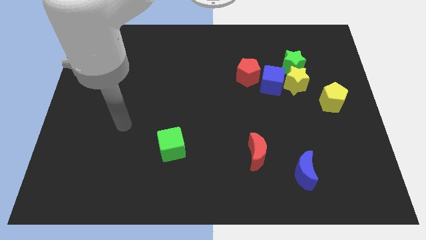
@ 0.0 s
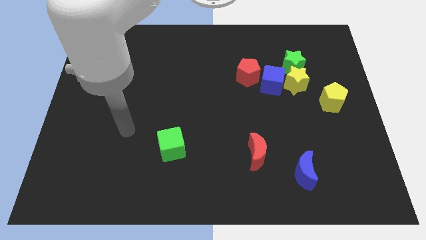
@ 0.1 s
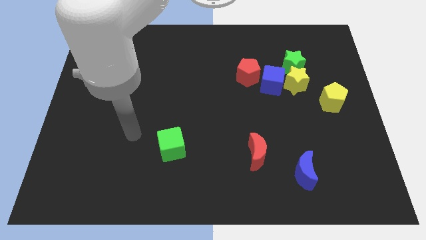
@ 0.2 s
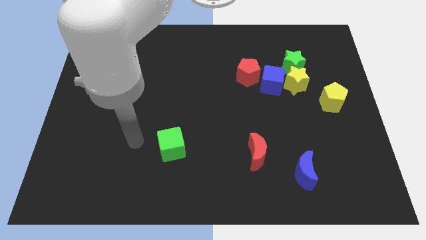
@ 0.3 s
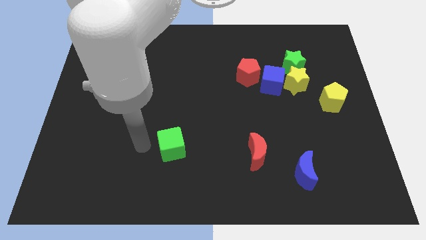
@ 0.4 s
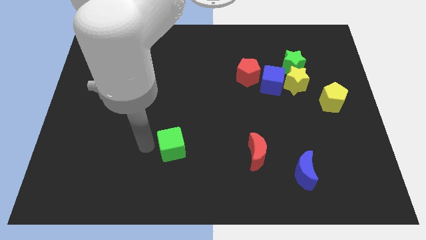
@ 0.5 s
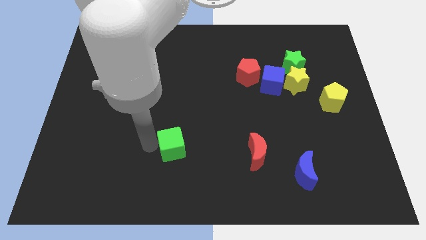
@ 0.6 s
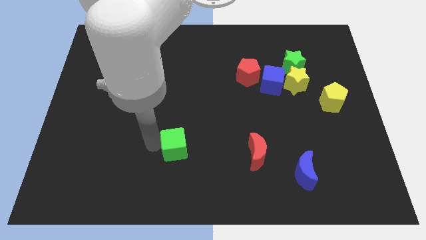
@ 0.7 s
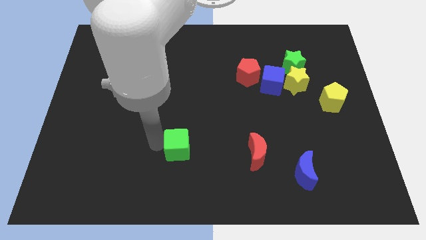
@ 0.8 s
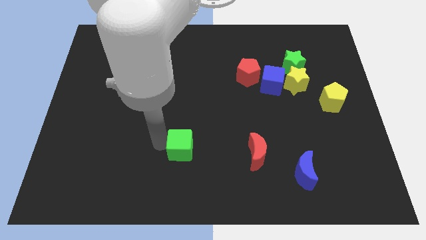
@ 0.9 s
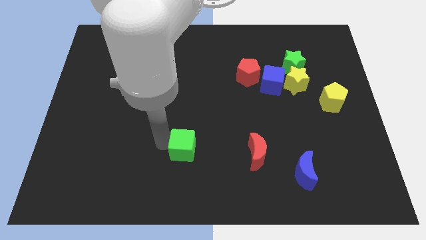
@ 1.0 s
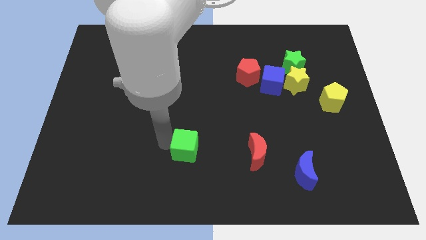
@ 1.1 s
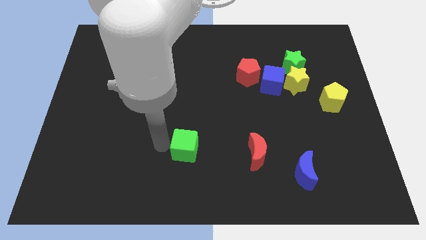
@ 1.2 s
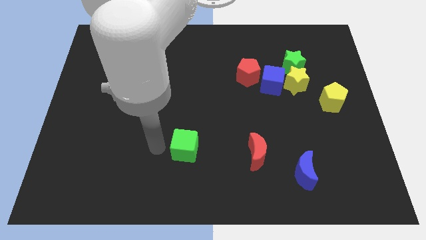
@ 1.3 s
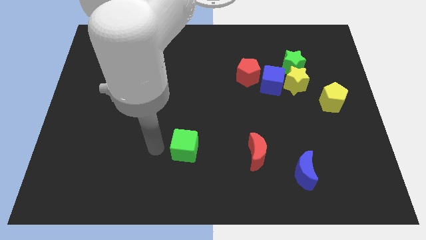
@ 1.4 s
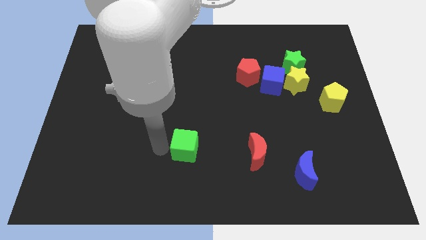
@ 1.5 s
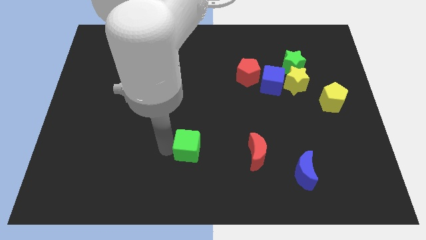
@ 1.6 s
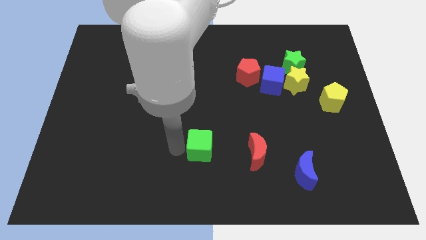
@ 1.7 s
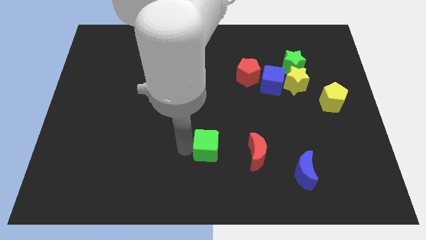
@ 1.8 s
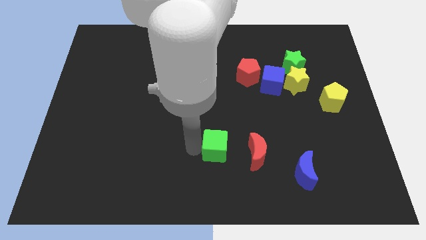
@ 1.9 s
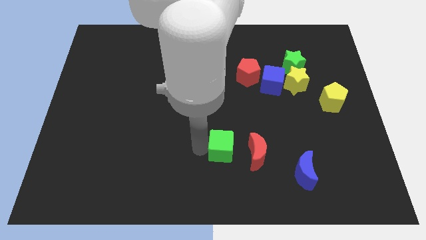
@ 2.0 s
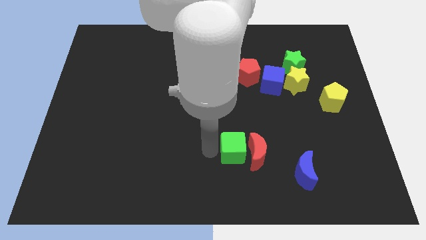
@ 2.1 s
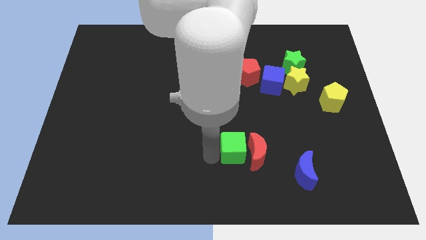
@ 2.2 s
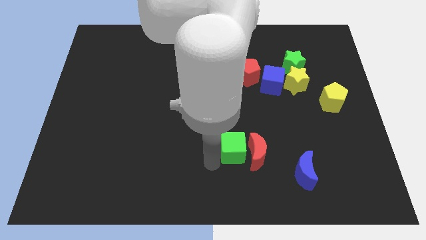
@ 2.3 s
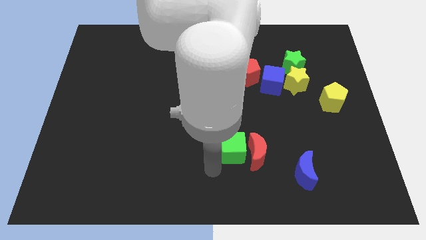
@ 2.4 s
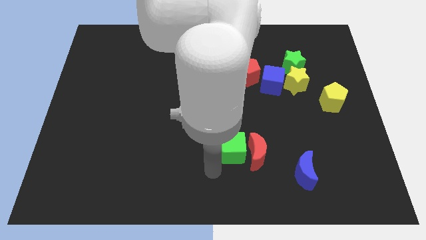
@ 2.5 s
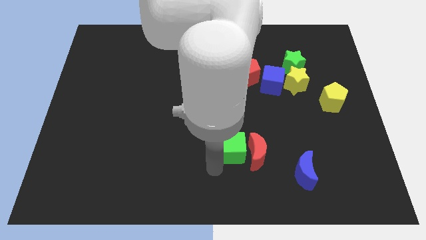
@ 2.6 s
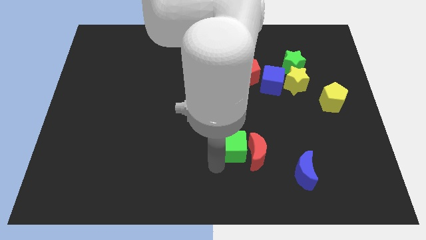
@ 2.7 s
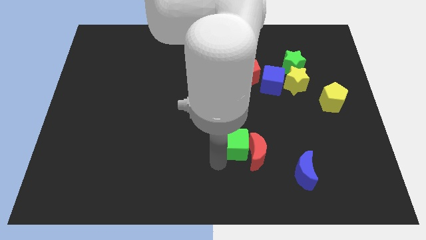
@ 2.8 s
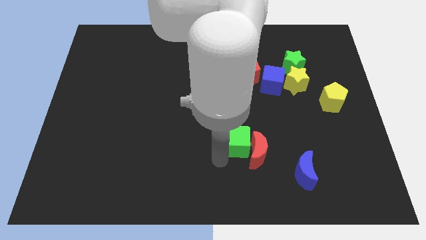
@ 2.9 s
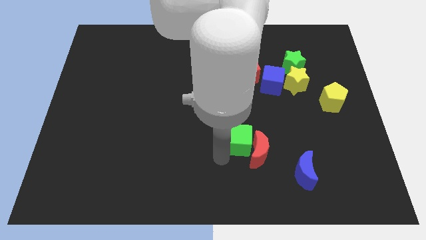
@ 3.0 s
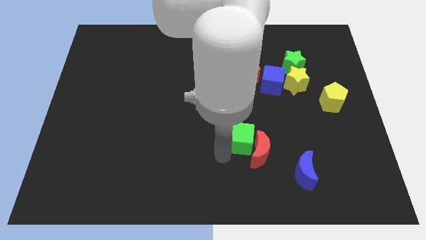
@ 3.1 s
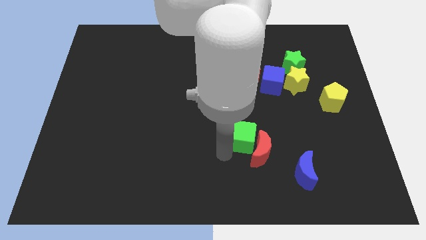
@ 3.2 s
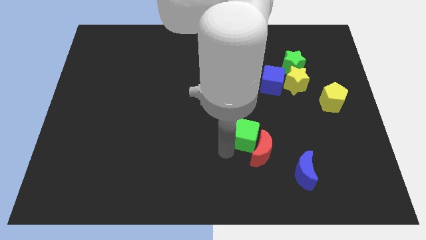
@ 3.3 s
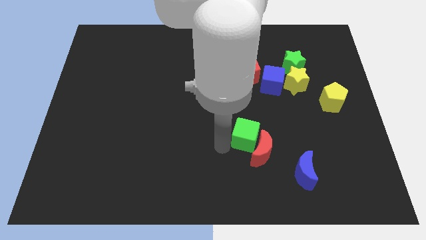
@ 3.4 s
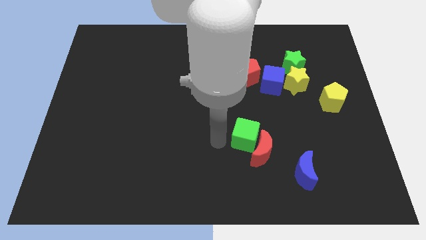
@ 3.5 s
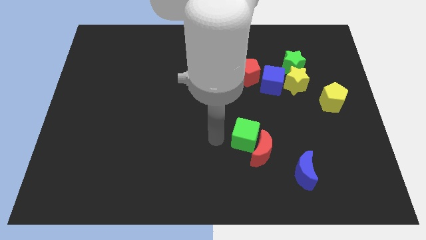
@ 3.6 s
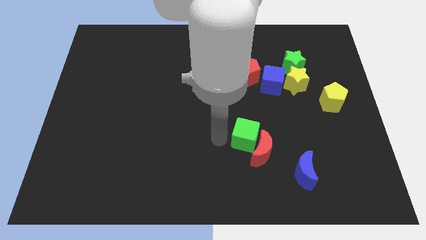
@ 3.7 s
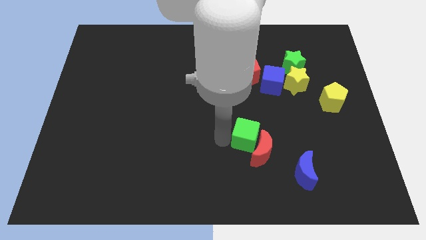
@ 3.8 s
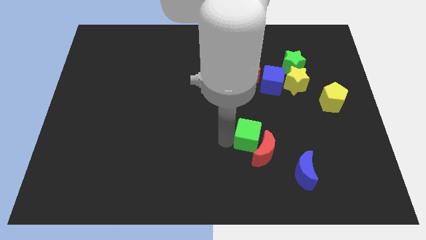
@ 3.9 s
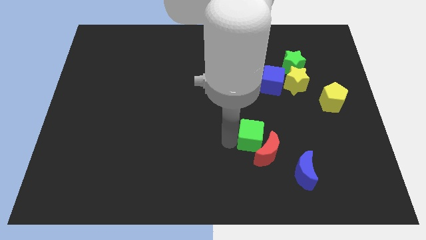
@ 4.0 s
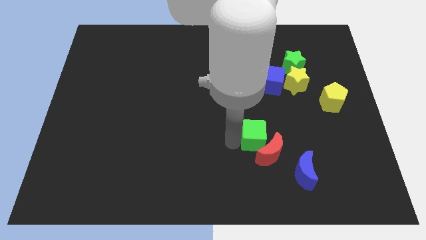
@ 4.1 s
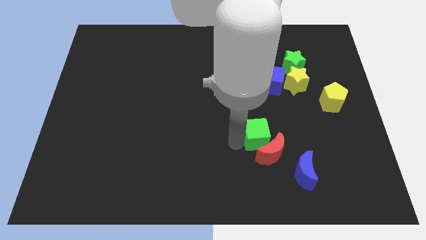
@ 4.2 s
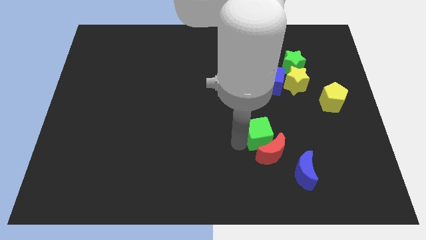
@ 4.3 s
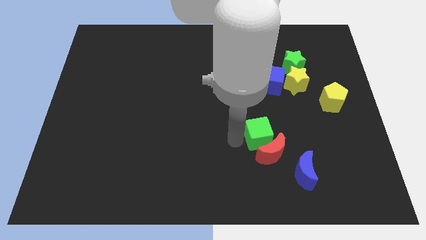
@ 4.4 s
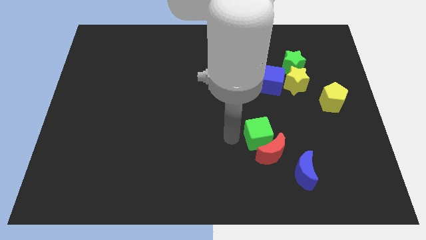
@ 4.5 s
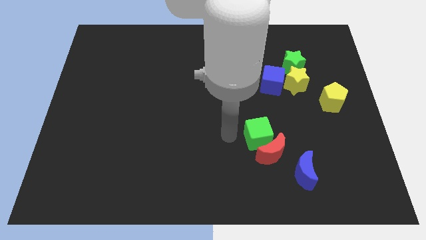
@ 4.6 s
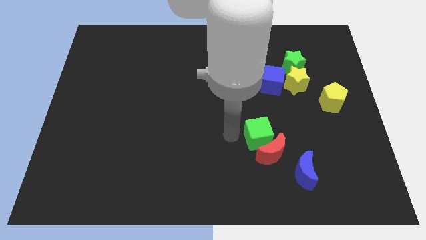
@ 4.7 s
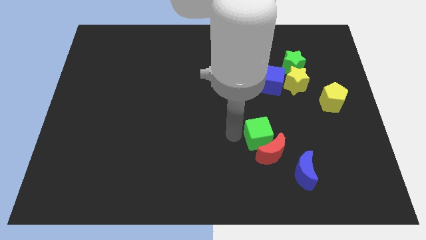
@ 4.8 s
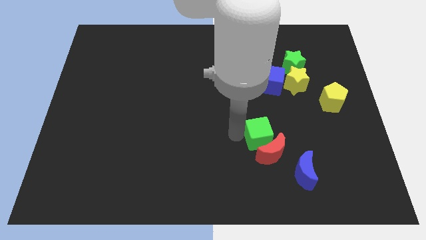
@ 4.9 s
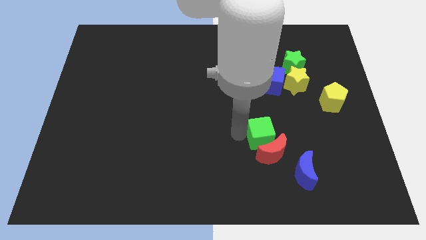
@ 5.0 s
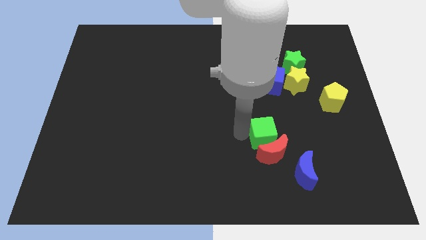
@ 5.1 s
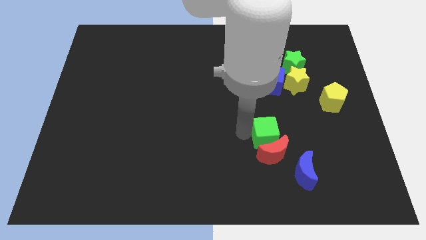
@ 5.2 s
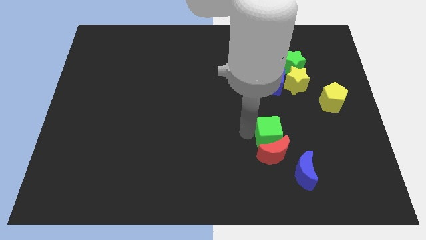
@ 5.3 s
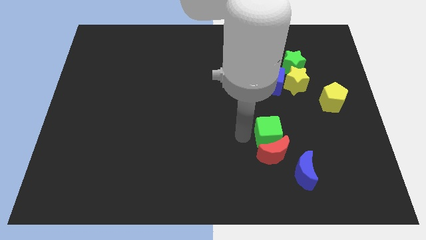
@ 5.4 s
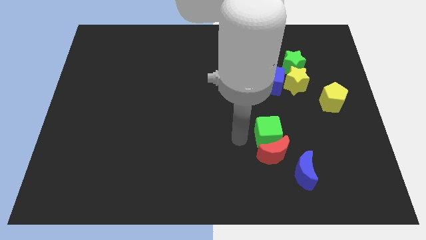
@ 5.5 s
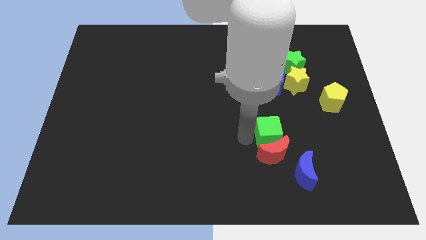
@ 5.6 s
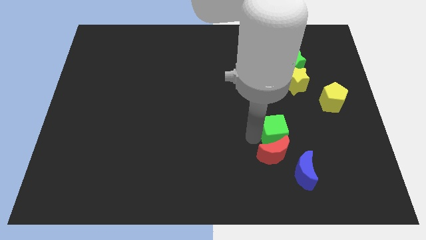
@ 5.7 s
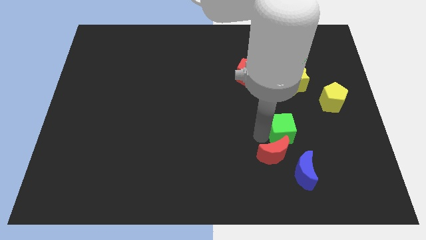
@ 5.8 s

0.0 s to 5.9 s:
move the green cube to the top side of the blue moon

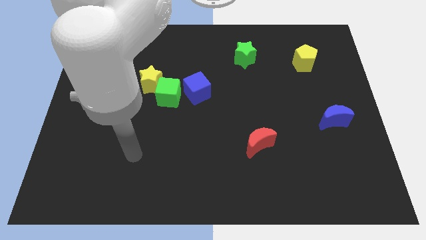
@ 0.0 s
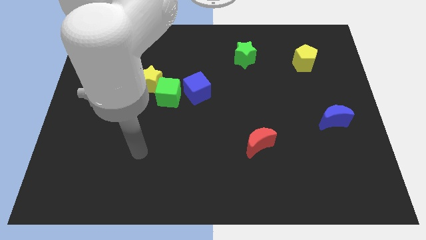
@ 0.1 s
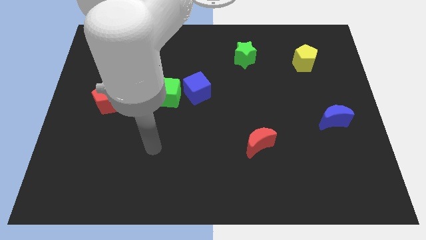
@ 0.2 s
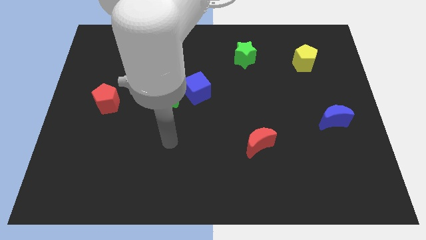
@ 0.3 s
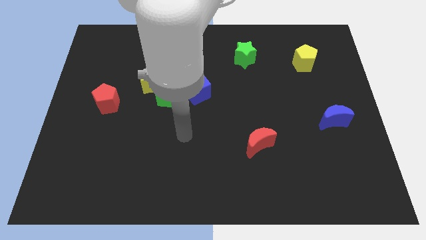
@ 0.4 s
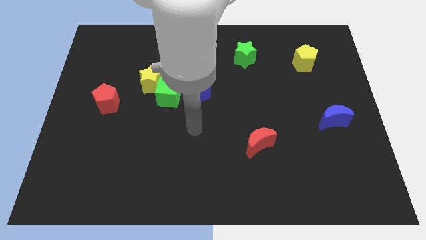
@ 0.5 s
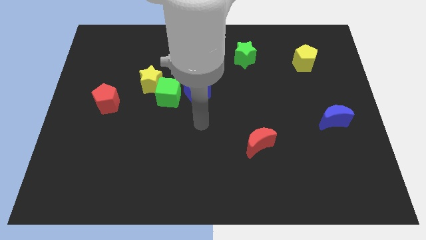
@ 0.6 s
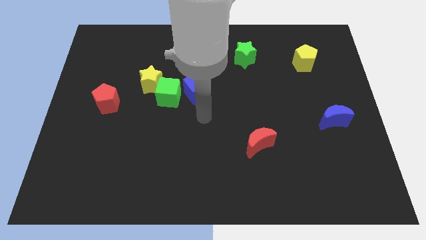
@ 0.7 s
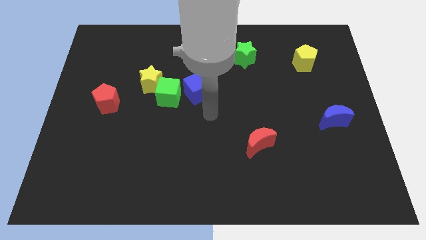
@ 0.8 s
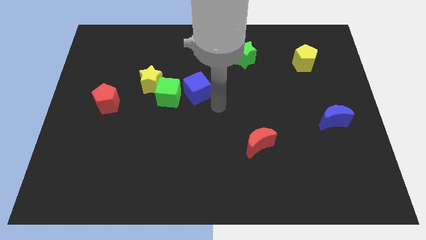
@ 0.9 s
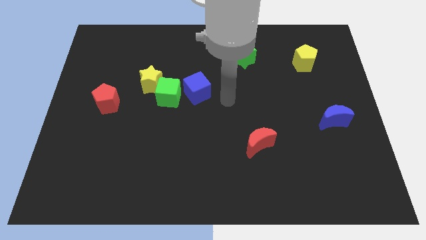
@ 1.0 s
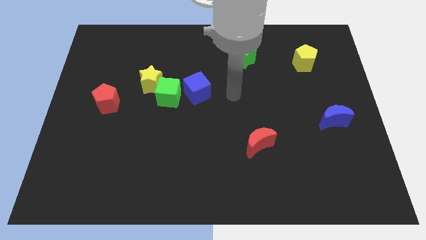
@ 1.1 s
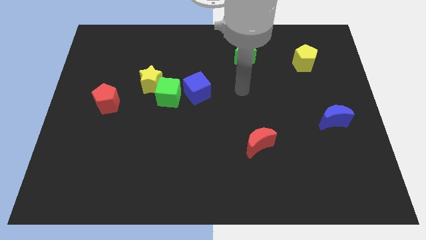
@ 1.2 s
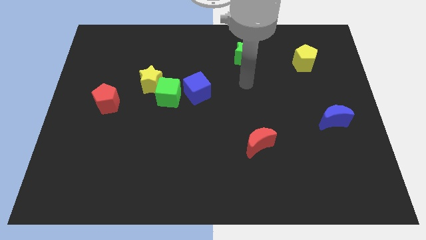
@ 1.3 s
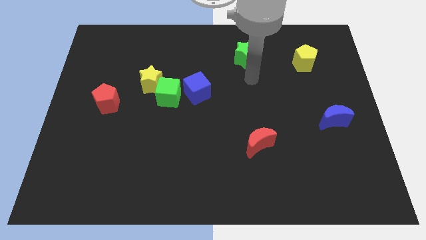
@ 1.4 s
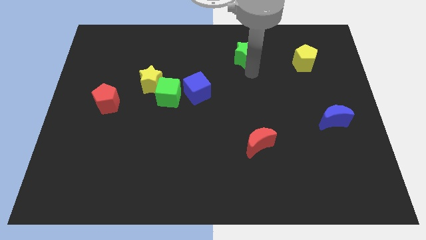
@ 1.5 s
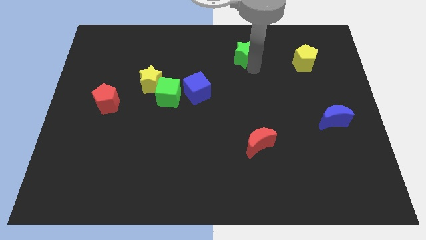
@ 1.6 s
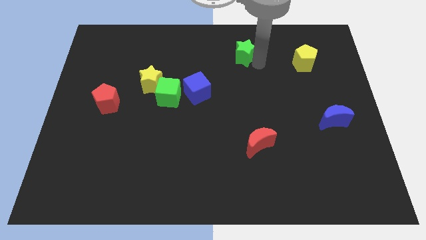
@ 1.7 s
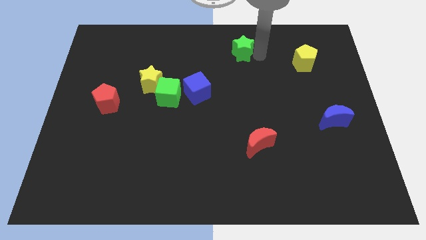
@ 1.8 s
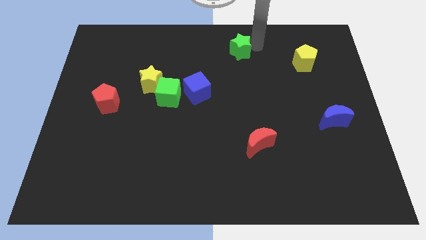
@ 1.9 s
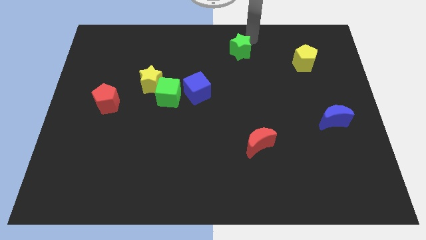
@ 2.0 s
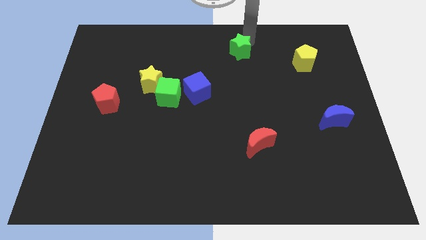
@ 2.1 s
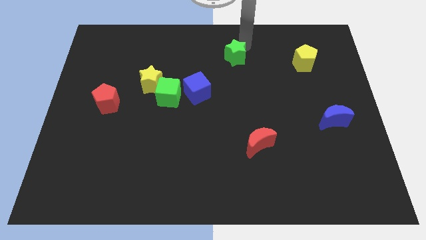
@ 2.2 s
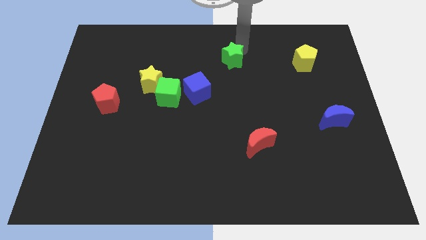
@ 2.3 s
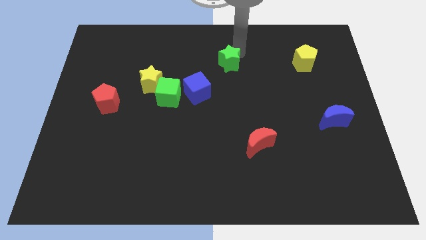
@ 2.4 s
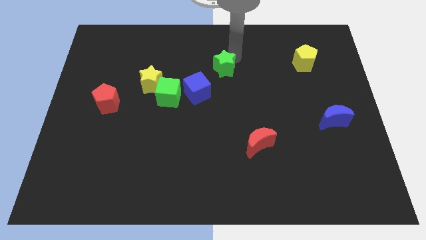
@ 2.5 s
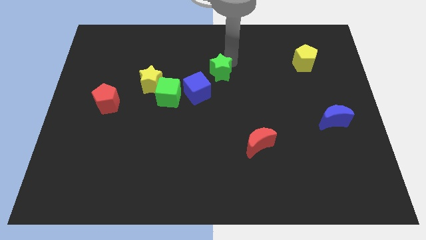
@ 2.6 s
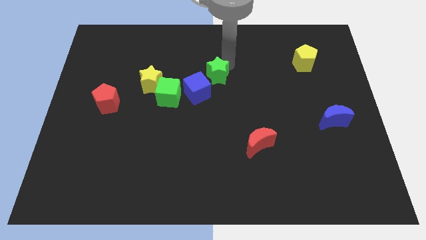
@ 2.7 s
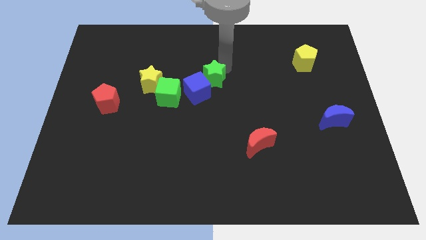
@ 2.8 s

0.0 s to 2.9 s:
move the green star to the right side of the yellow star
